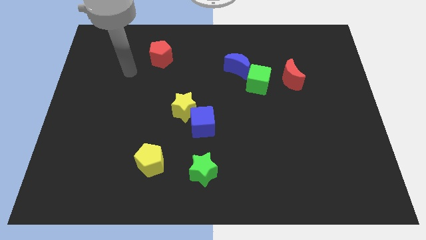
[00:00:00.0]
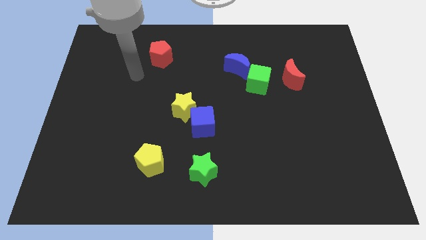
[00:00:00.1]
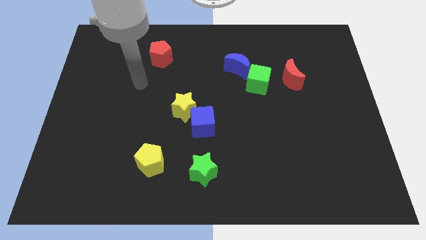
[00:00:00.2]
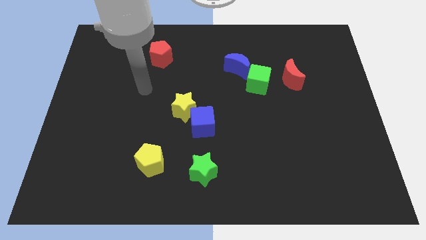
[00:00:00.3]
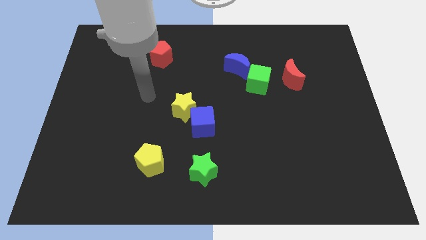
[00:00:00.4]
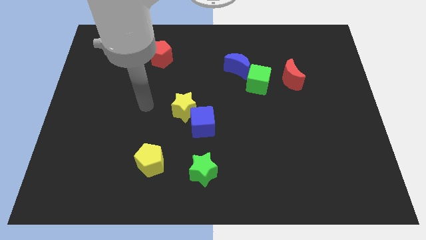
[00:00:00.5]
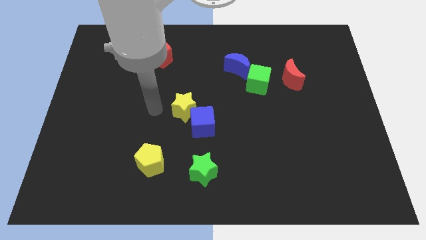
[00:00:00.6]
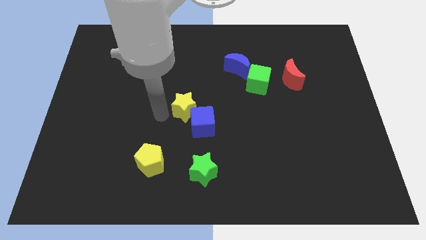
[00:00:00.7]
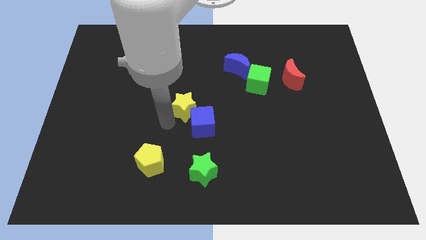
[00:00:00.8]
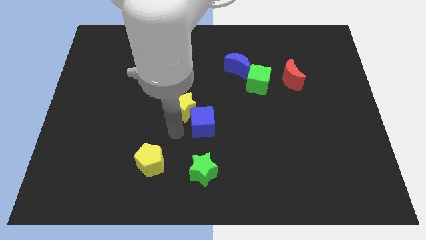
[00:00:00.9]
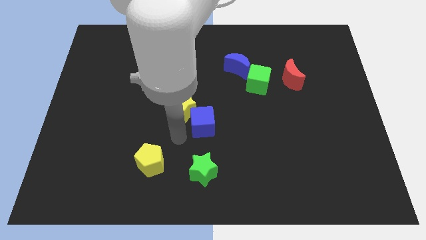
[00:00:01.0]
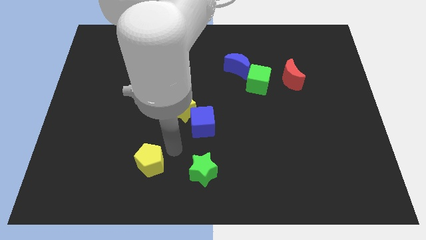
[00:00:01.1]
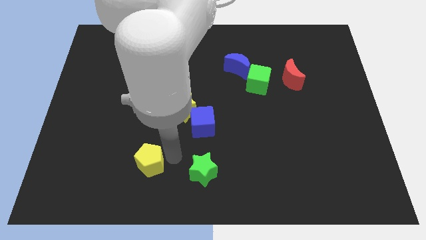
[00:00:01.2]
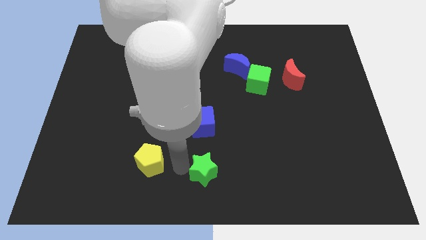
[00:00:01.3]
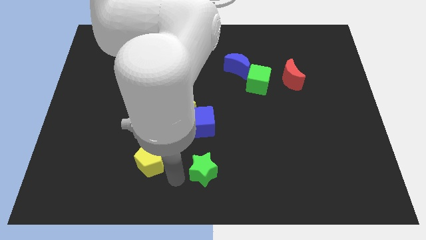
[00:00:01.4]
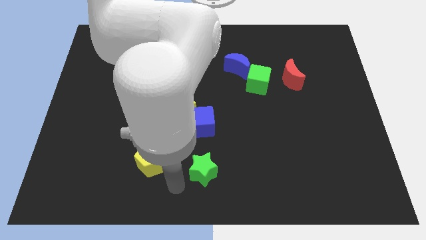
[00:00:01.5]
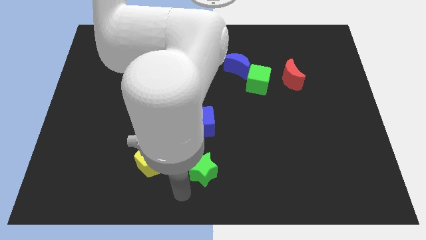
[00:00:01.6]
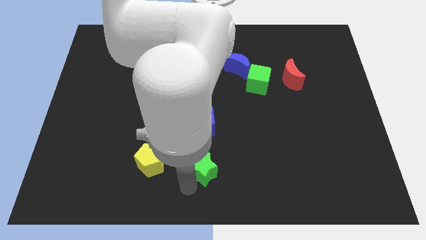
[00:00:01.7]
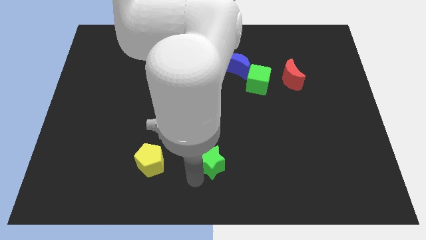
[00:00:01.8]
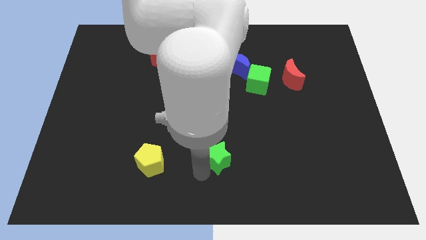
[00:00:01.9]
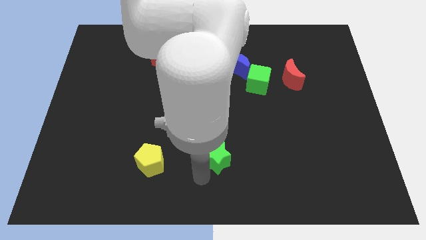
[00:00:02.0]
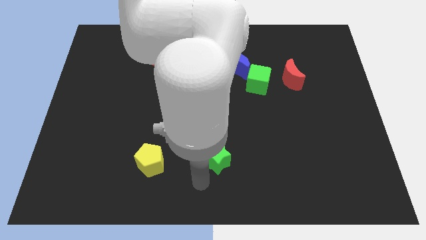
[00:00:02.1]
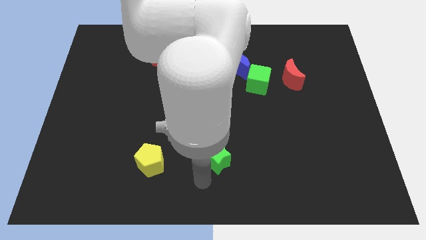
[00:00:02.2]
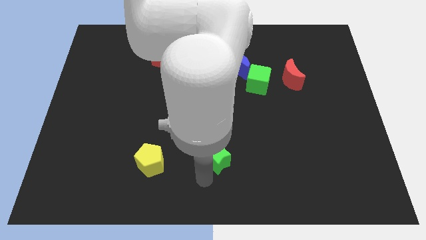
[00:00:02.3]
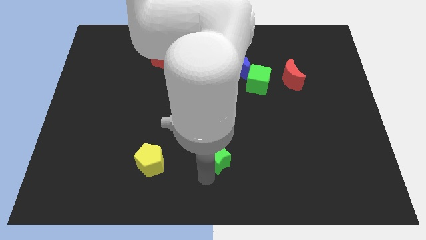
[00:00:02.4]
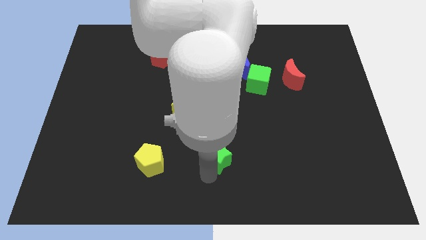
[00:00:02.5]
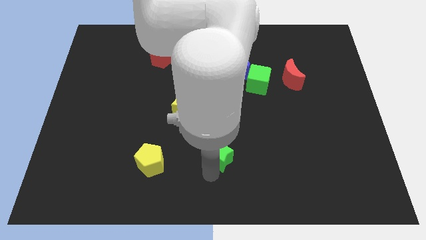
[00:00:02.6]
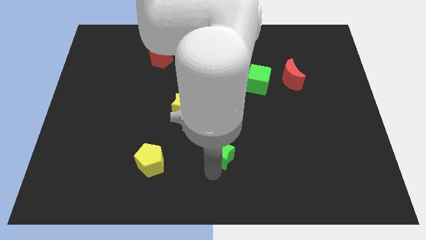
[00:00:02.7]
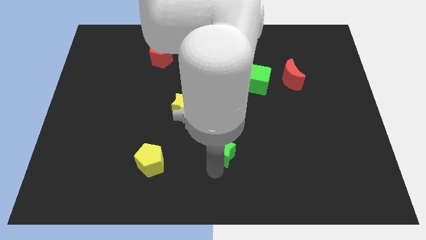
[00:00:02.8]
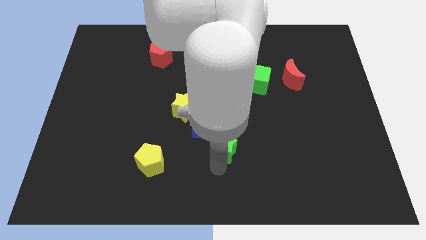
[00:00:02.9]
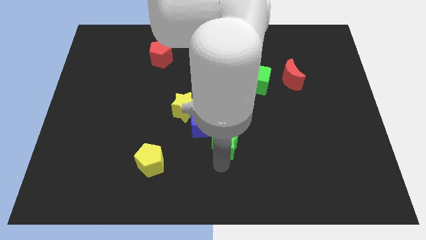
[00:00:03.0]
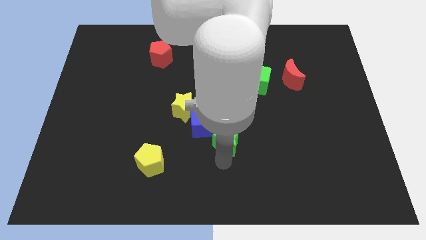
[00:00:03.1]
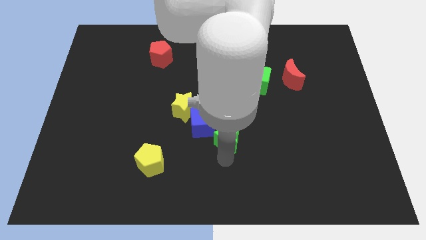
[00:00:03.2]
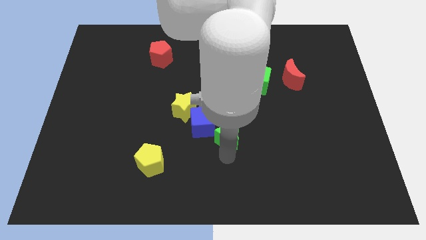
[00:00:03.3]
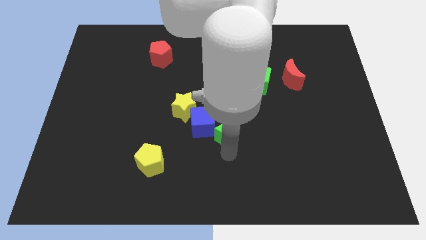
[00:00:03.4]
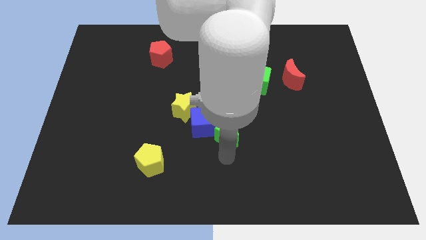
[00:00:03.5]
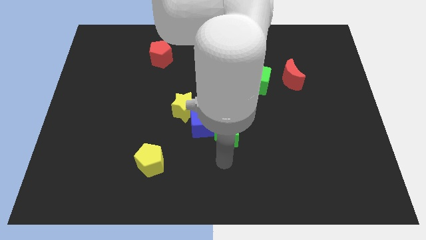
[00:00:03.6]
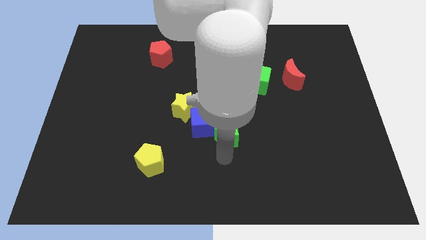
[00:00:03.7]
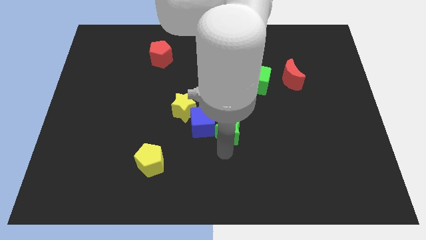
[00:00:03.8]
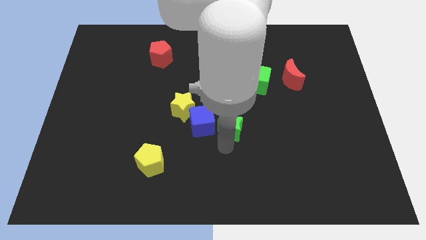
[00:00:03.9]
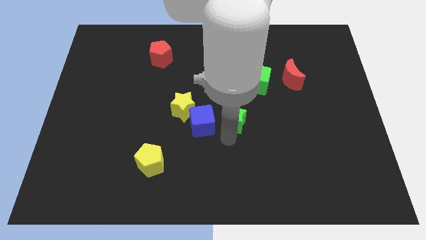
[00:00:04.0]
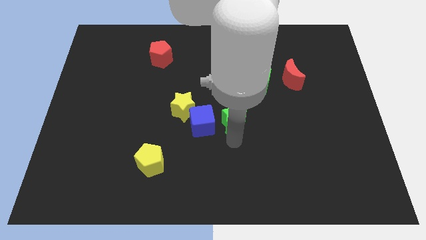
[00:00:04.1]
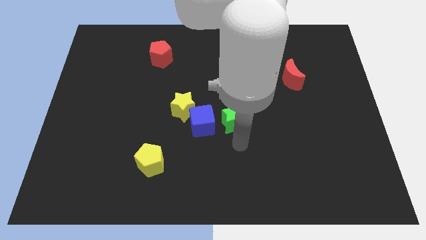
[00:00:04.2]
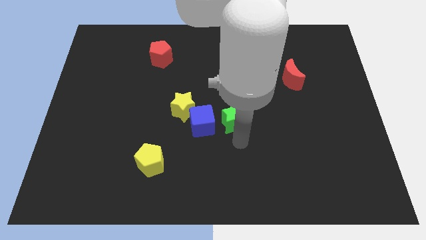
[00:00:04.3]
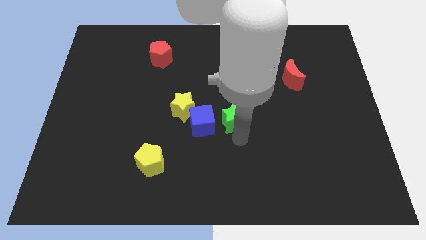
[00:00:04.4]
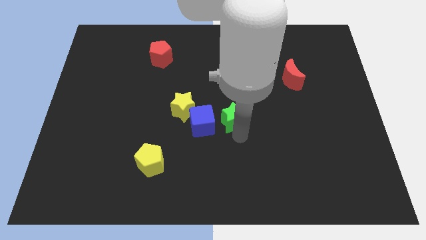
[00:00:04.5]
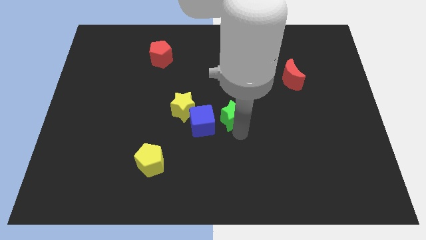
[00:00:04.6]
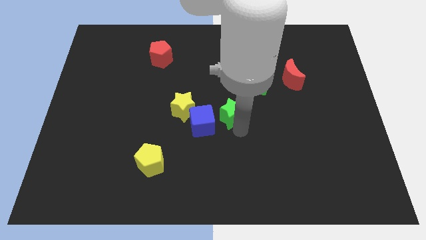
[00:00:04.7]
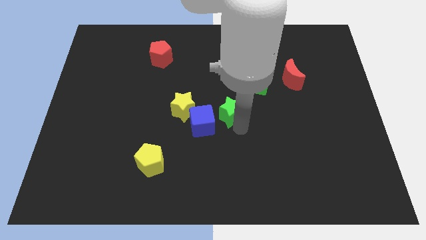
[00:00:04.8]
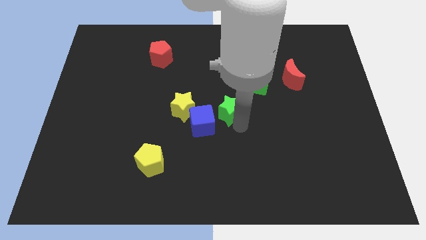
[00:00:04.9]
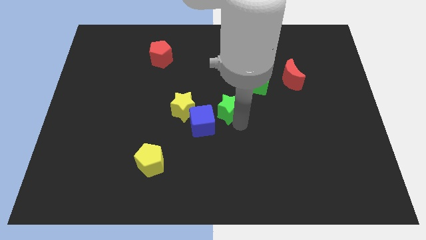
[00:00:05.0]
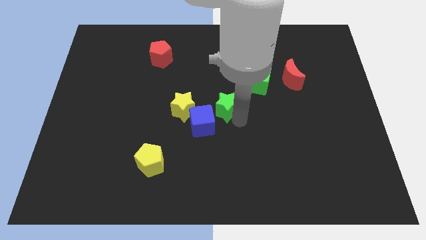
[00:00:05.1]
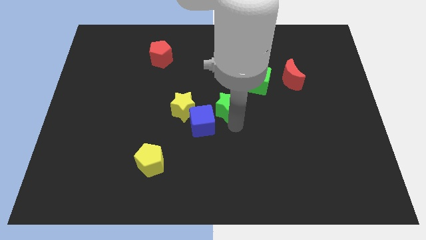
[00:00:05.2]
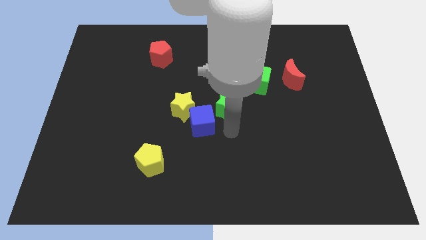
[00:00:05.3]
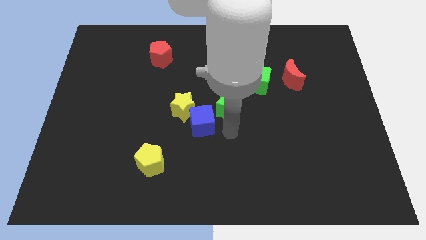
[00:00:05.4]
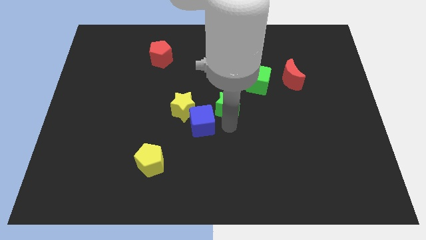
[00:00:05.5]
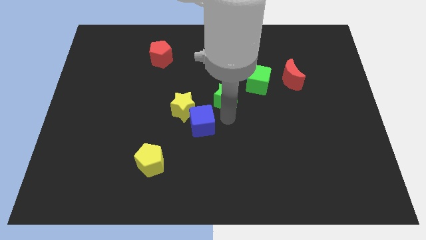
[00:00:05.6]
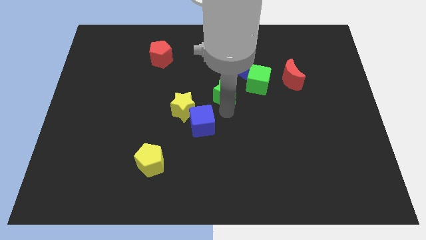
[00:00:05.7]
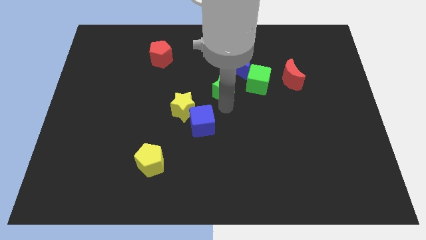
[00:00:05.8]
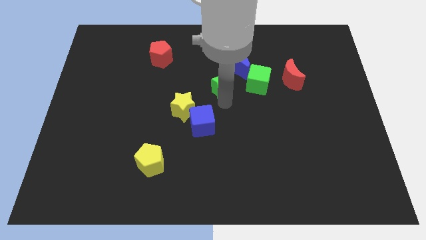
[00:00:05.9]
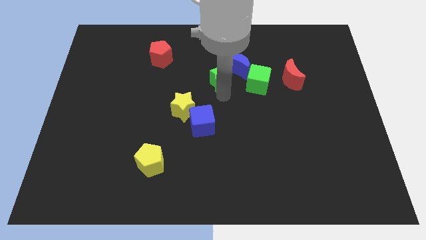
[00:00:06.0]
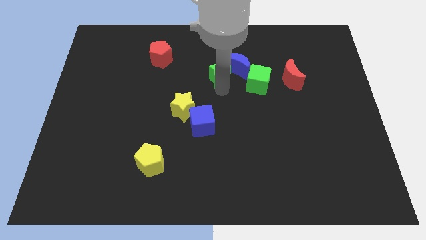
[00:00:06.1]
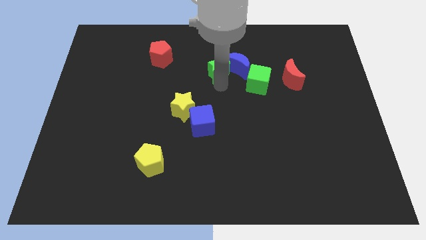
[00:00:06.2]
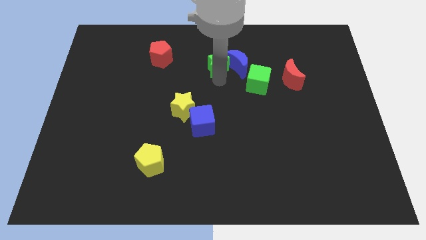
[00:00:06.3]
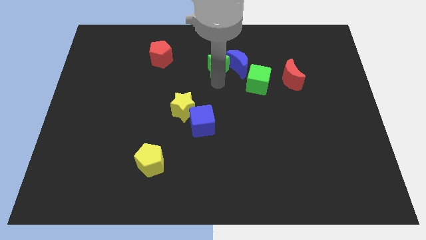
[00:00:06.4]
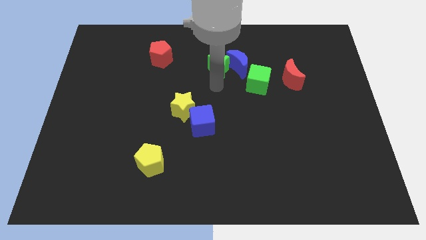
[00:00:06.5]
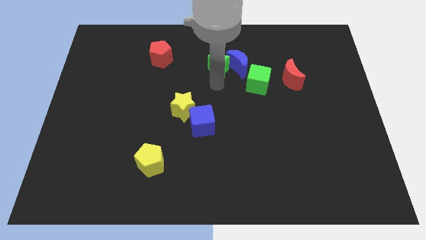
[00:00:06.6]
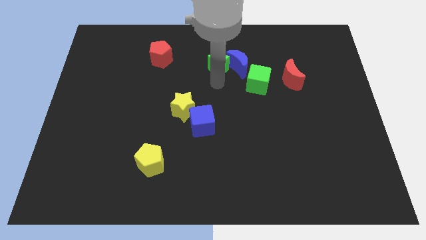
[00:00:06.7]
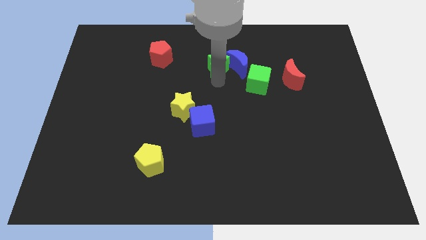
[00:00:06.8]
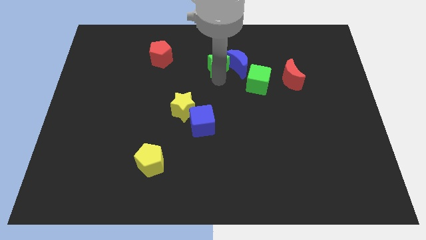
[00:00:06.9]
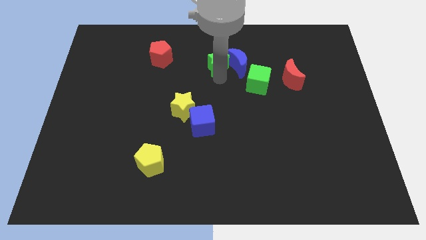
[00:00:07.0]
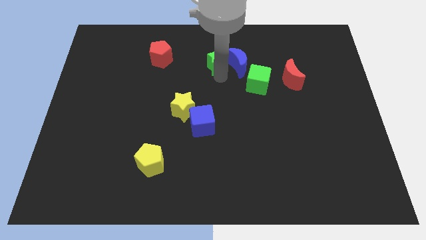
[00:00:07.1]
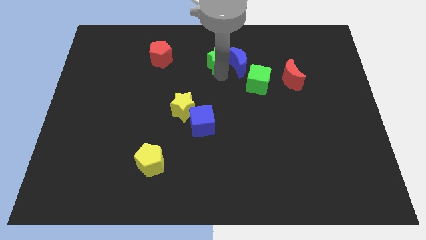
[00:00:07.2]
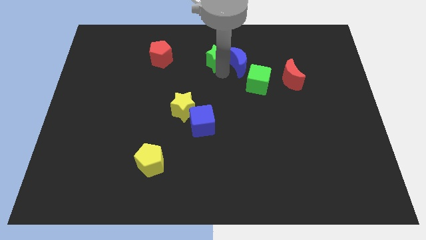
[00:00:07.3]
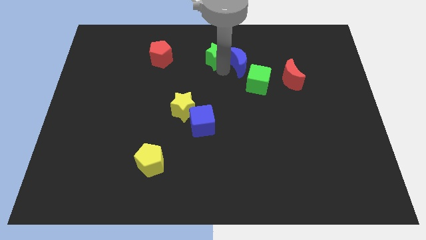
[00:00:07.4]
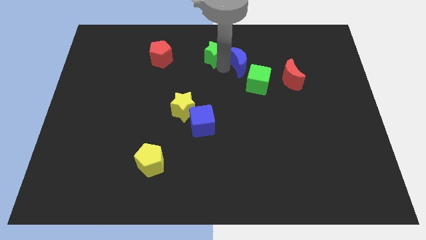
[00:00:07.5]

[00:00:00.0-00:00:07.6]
slide the green star to the top
